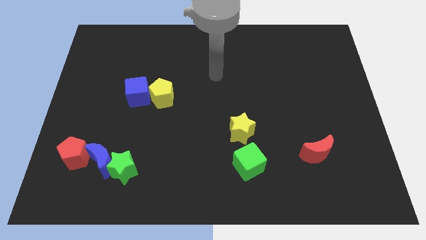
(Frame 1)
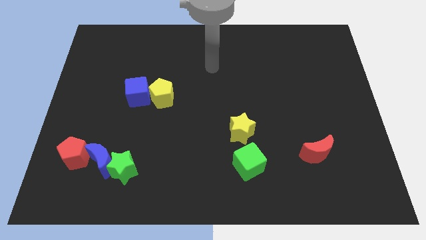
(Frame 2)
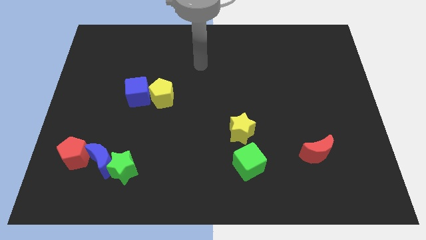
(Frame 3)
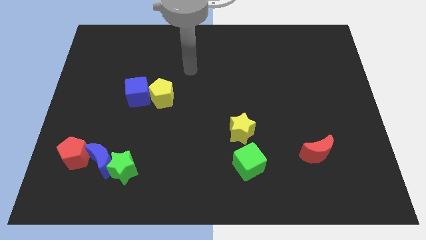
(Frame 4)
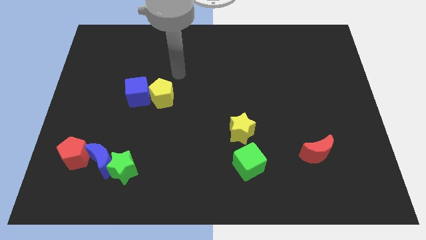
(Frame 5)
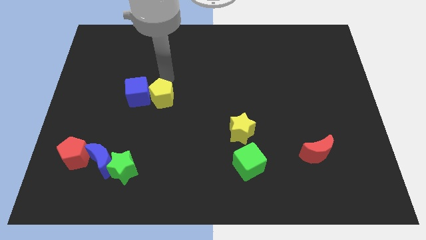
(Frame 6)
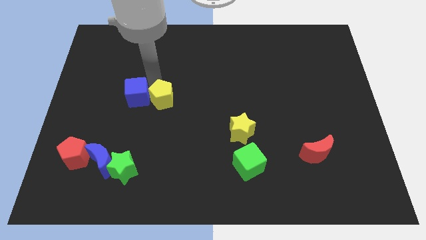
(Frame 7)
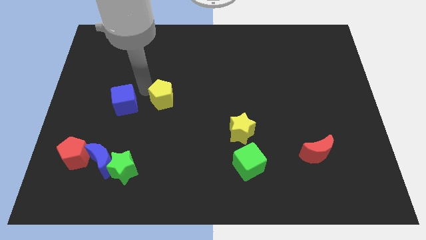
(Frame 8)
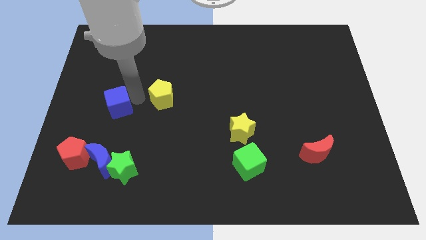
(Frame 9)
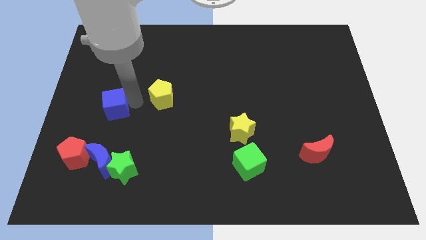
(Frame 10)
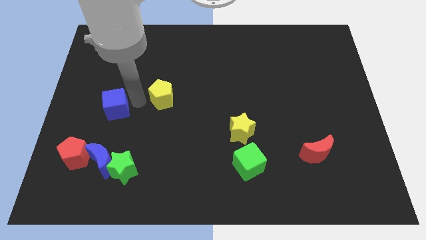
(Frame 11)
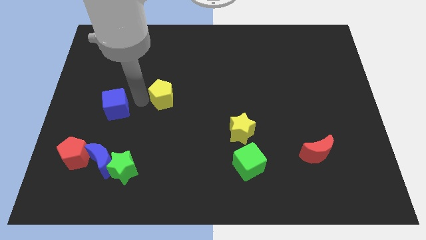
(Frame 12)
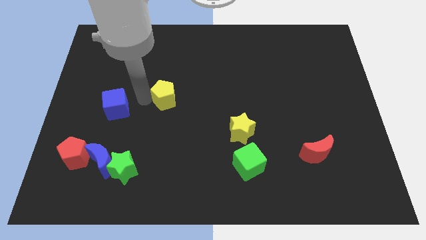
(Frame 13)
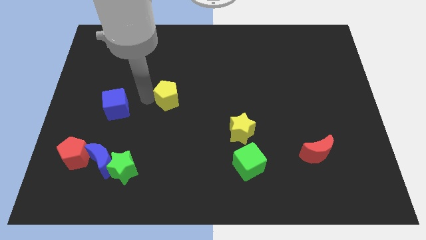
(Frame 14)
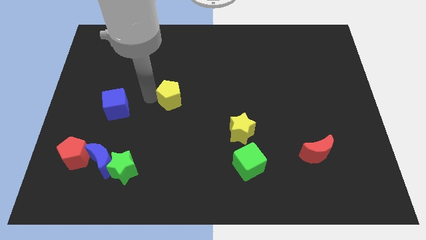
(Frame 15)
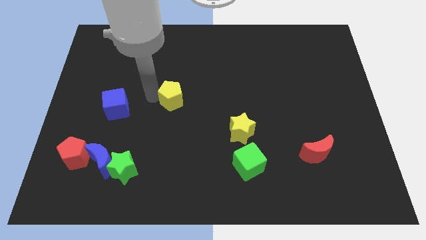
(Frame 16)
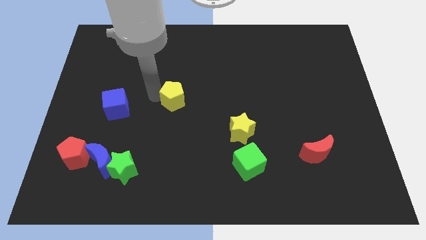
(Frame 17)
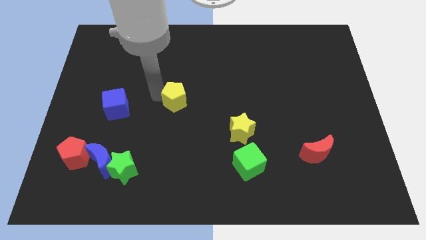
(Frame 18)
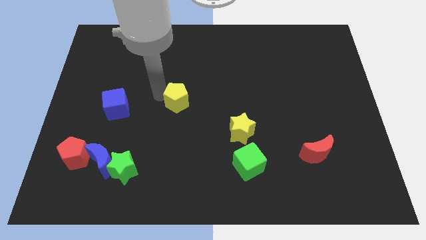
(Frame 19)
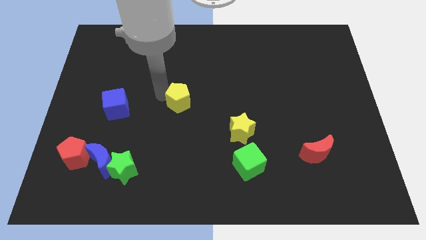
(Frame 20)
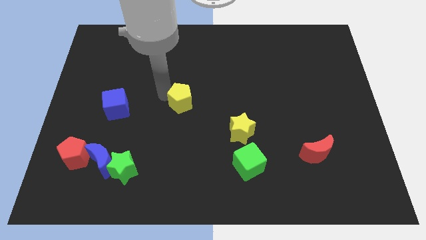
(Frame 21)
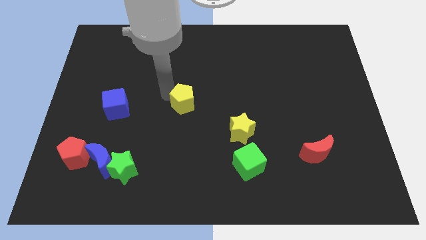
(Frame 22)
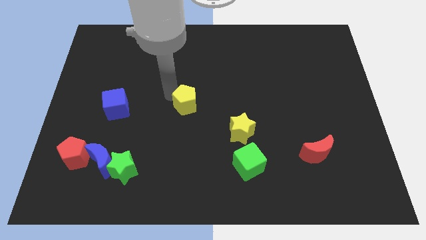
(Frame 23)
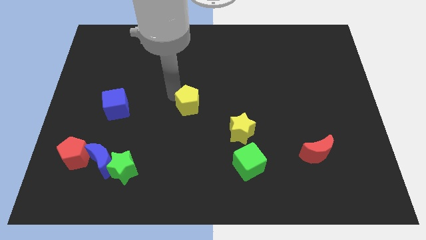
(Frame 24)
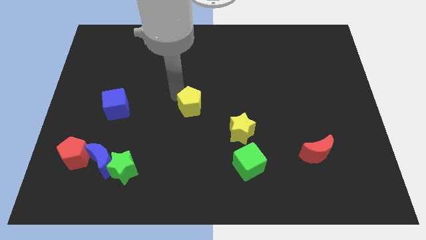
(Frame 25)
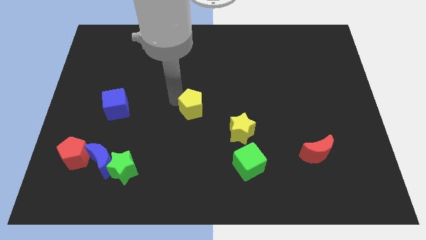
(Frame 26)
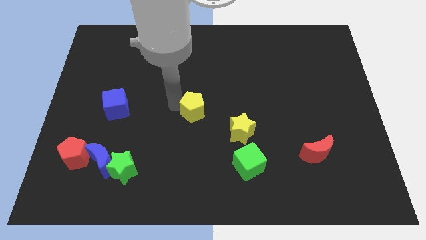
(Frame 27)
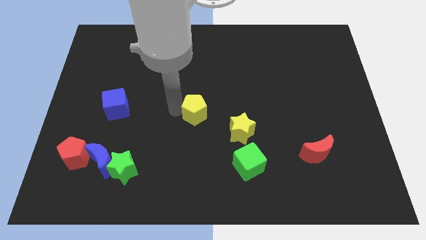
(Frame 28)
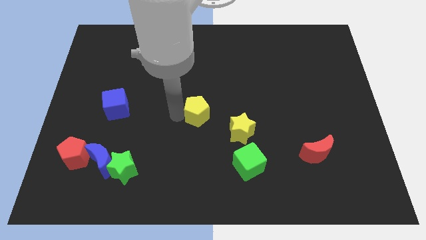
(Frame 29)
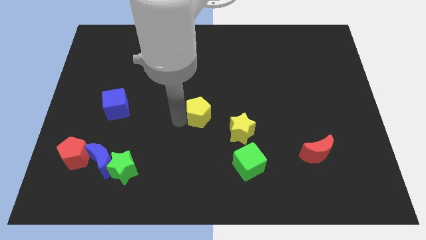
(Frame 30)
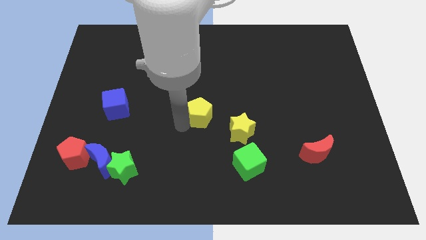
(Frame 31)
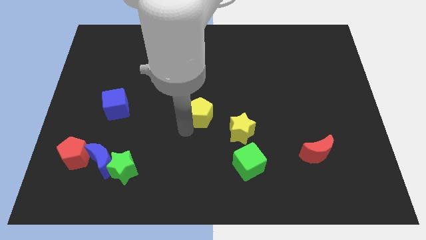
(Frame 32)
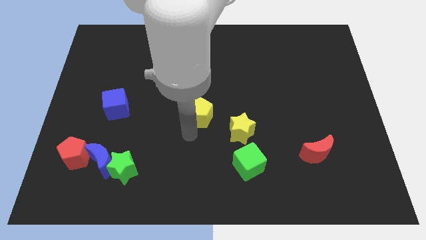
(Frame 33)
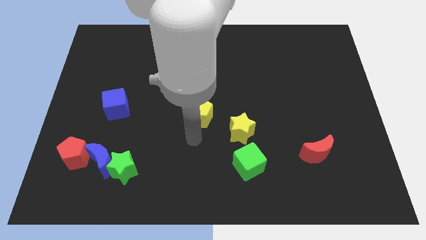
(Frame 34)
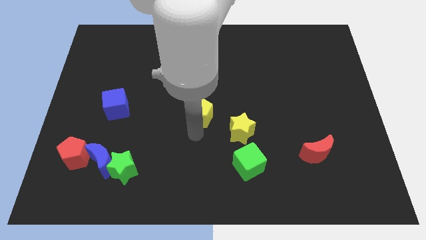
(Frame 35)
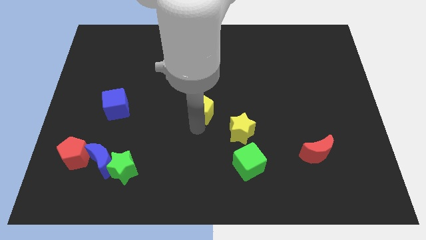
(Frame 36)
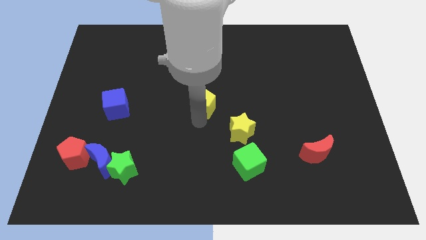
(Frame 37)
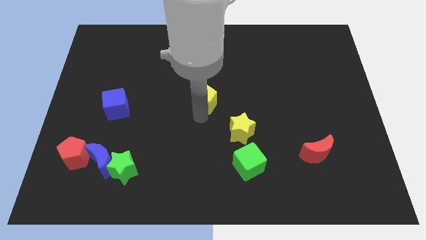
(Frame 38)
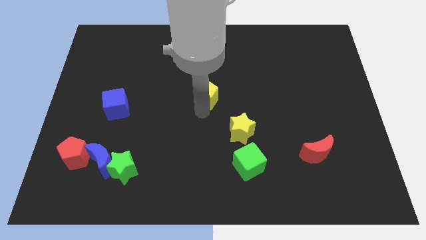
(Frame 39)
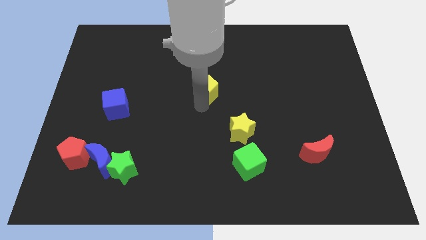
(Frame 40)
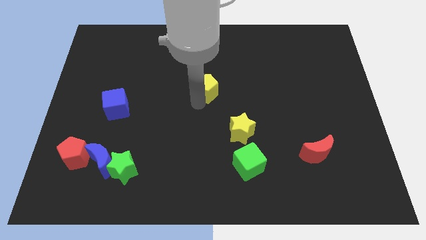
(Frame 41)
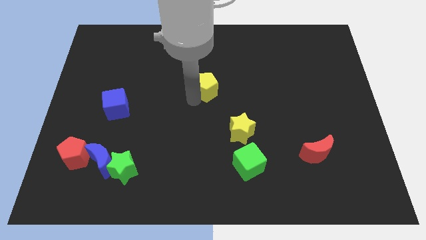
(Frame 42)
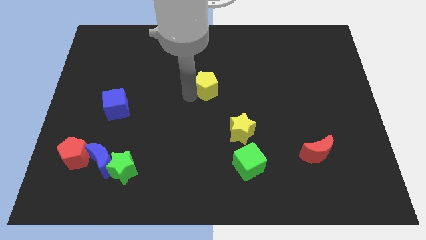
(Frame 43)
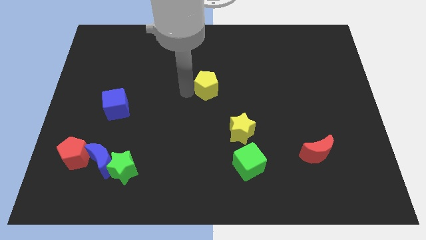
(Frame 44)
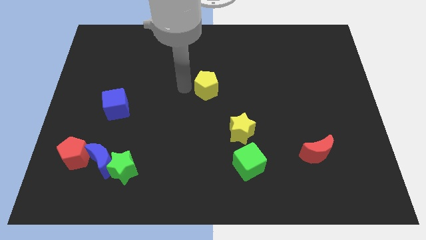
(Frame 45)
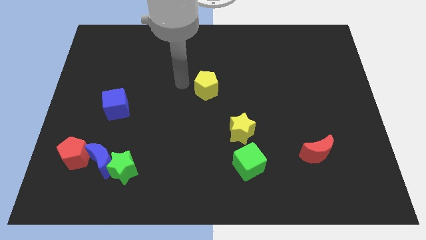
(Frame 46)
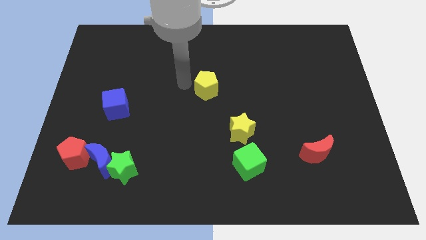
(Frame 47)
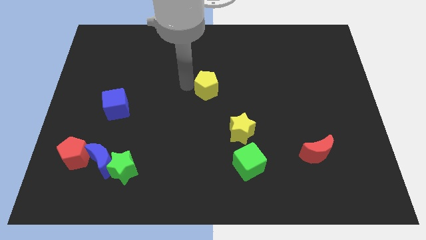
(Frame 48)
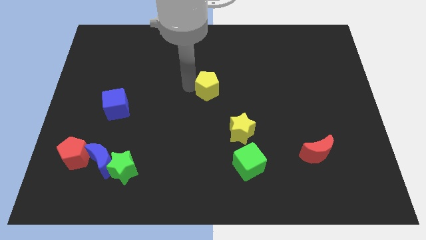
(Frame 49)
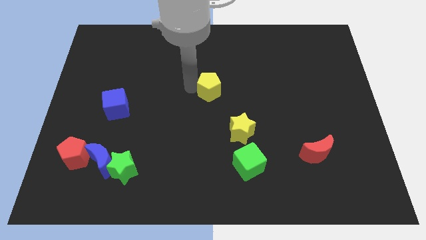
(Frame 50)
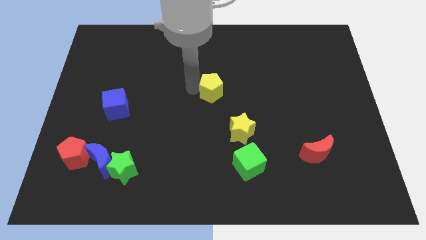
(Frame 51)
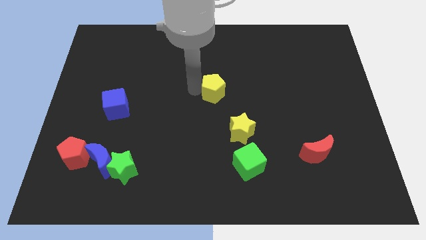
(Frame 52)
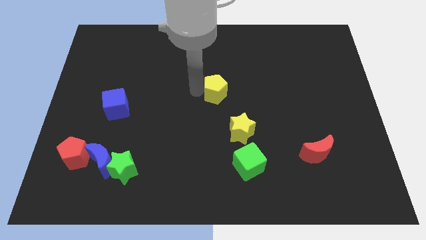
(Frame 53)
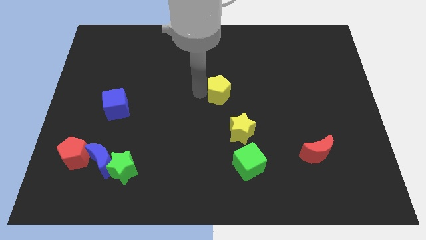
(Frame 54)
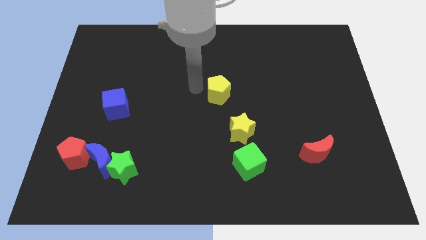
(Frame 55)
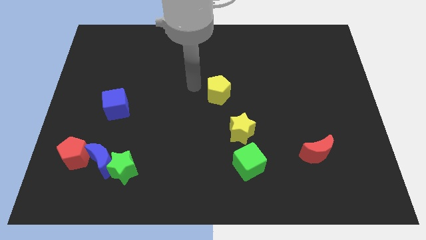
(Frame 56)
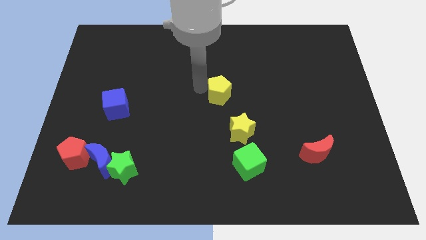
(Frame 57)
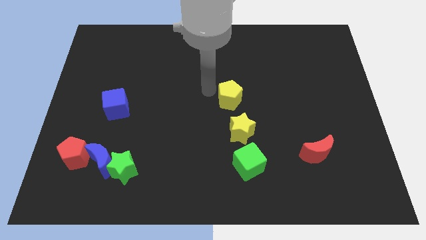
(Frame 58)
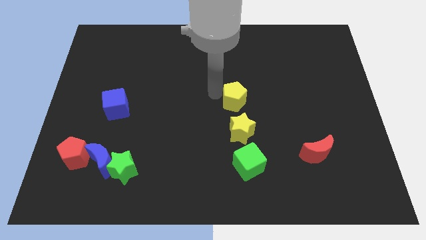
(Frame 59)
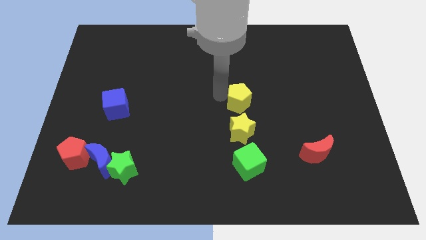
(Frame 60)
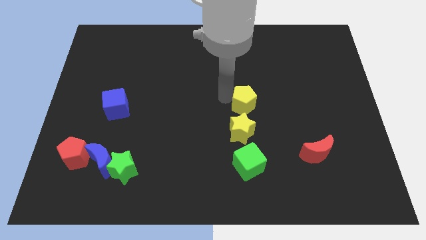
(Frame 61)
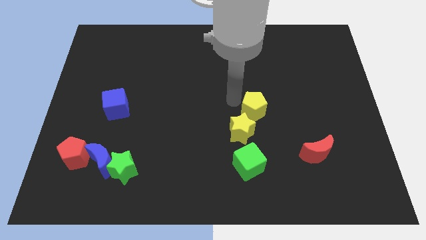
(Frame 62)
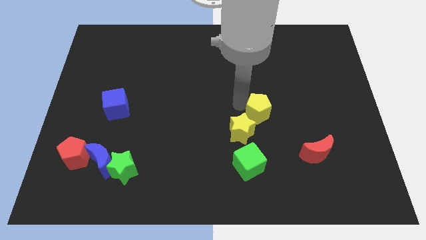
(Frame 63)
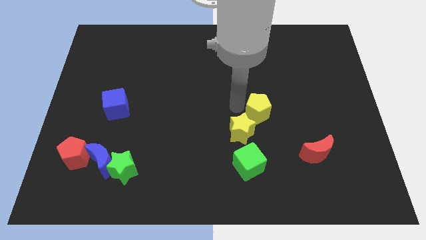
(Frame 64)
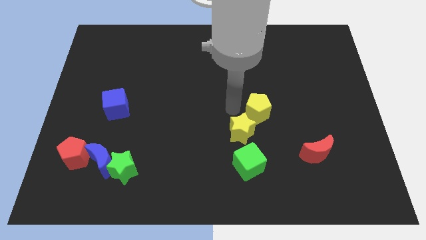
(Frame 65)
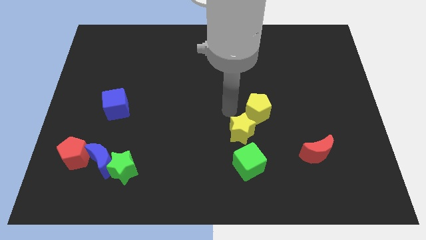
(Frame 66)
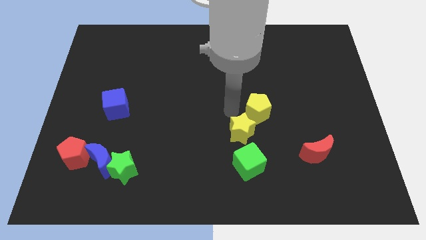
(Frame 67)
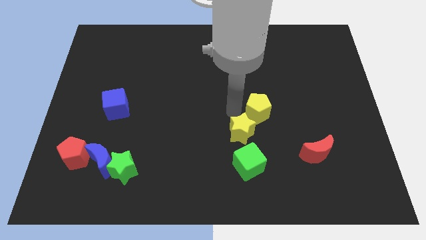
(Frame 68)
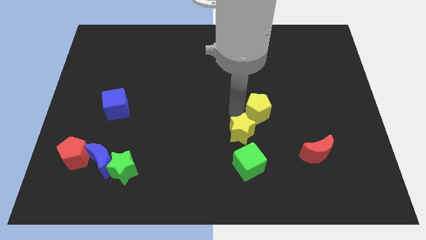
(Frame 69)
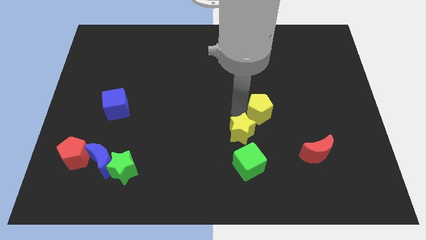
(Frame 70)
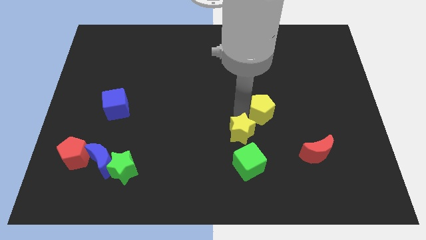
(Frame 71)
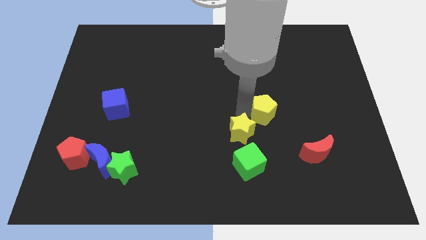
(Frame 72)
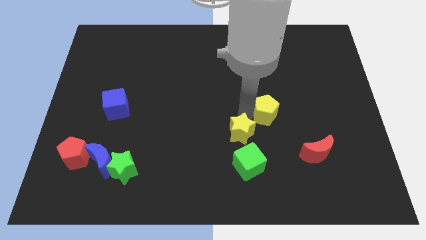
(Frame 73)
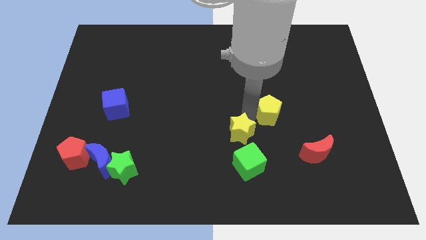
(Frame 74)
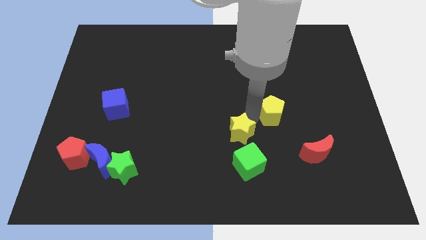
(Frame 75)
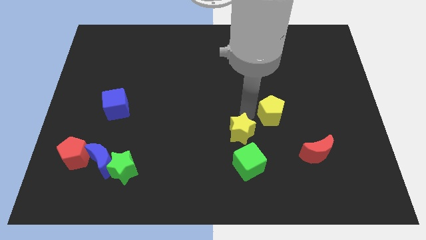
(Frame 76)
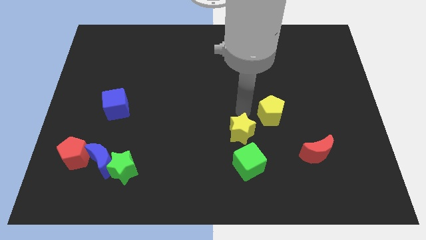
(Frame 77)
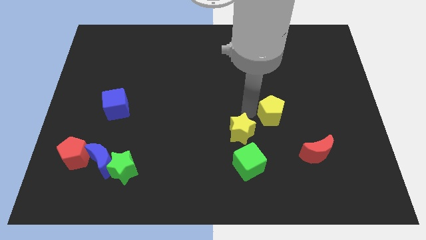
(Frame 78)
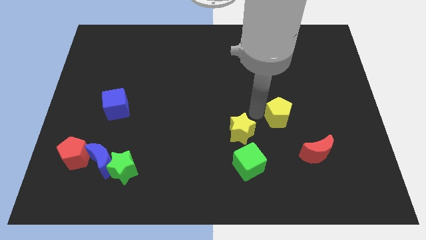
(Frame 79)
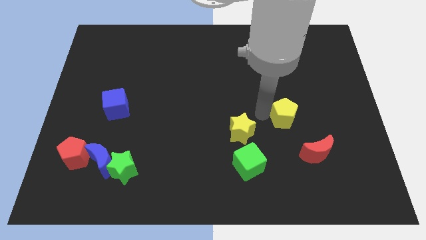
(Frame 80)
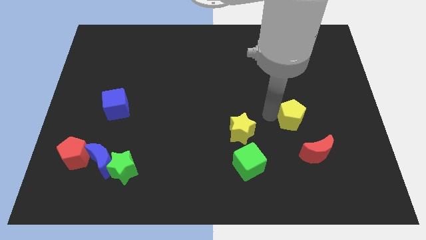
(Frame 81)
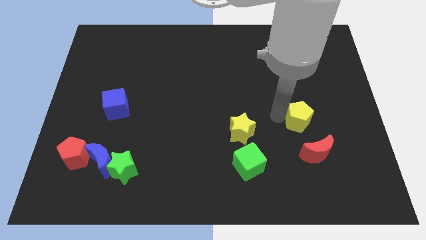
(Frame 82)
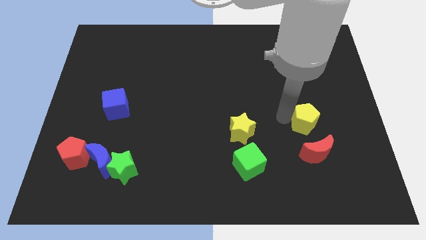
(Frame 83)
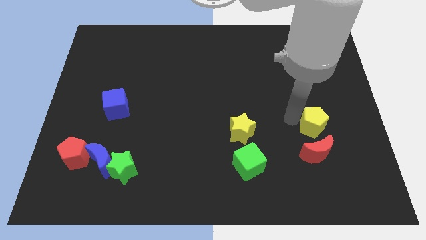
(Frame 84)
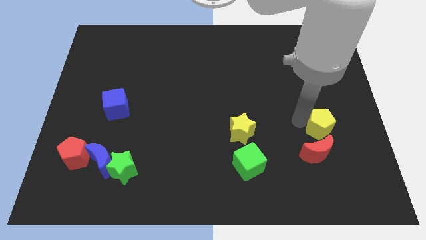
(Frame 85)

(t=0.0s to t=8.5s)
push the yellow pentagon to the top right of the red moon
